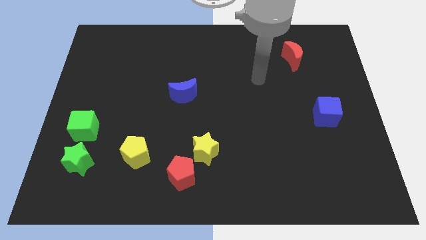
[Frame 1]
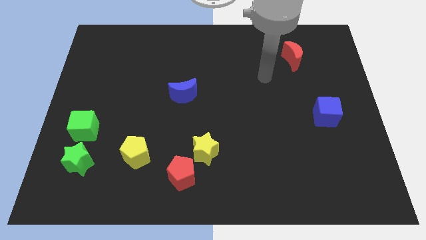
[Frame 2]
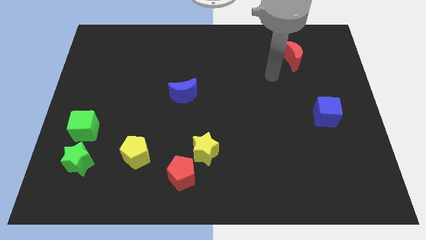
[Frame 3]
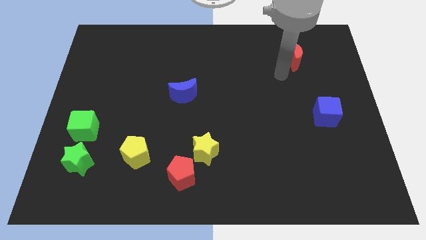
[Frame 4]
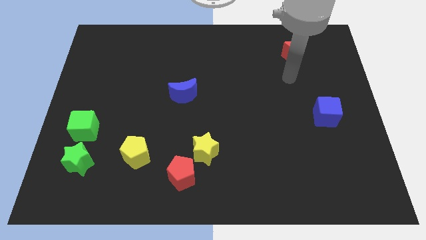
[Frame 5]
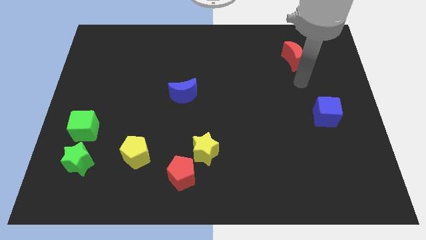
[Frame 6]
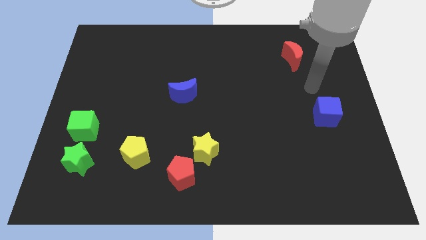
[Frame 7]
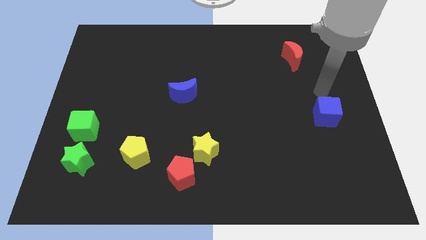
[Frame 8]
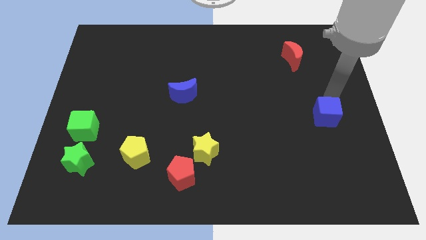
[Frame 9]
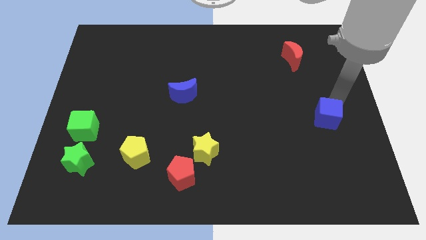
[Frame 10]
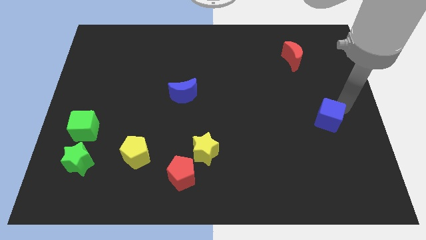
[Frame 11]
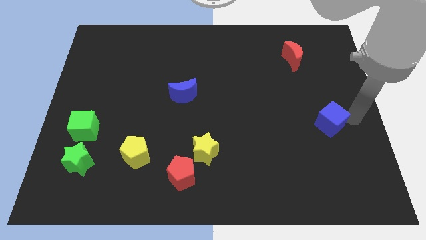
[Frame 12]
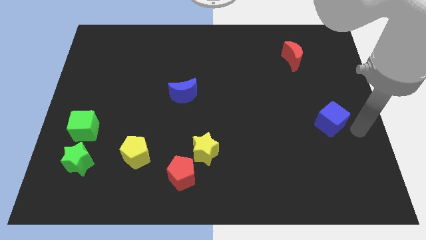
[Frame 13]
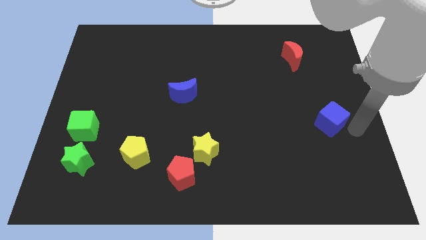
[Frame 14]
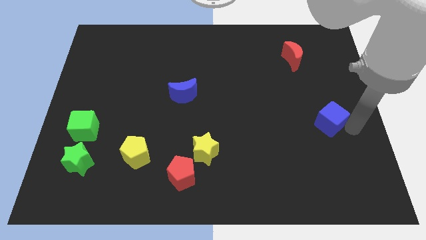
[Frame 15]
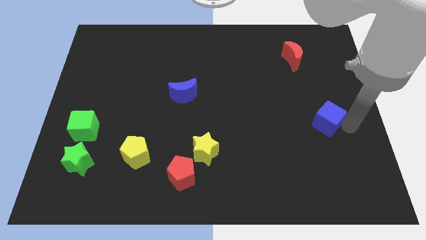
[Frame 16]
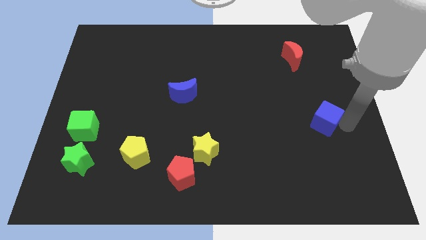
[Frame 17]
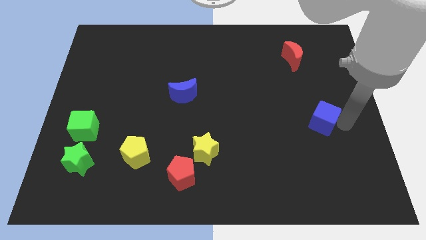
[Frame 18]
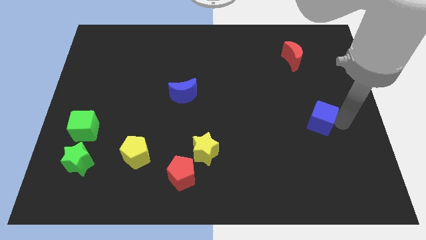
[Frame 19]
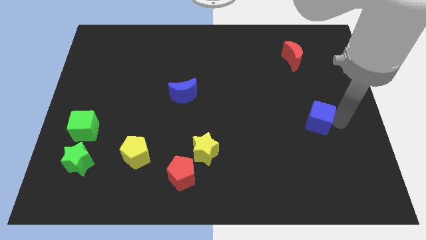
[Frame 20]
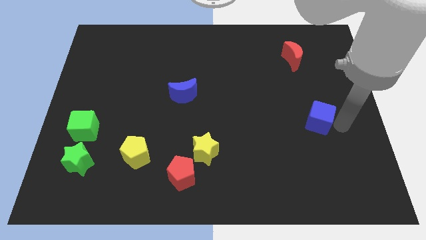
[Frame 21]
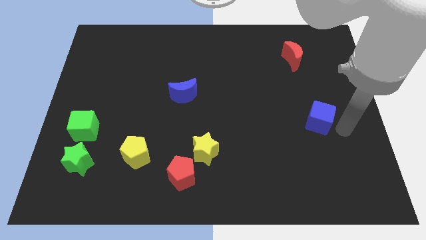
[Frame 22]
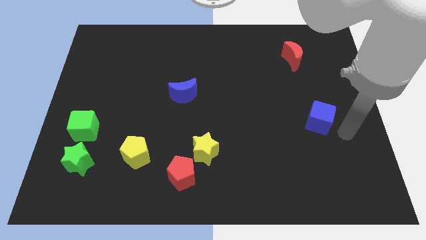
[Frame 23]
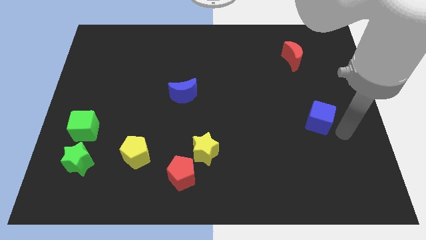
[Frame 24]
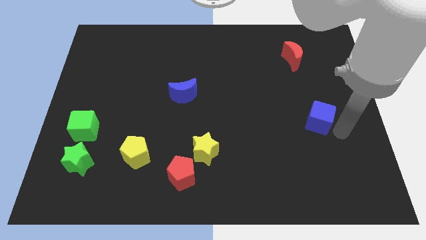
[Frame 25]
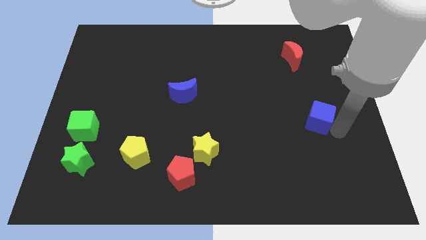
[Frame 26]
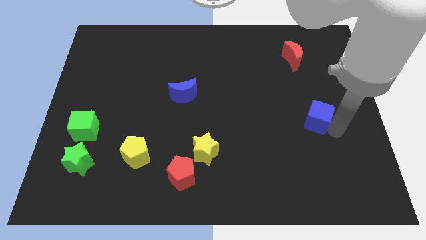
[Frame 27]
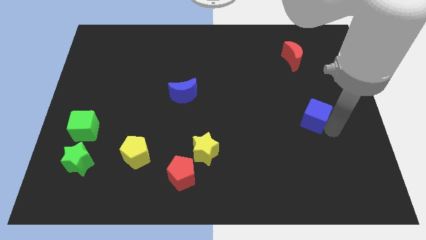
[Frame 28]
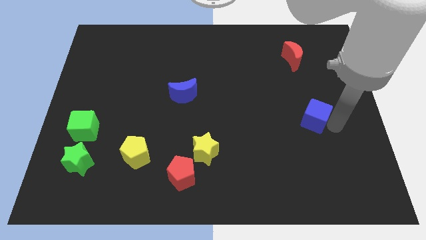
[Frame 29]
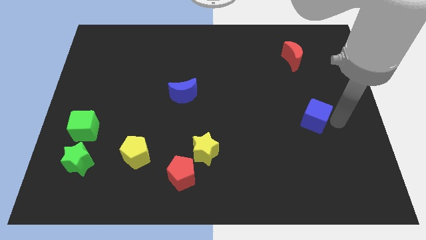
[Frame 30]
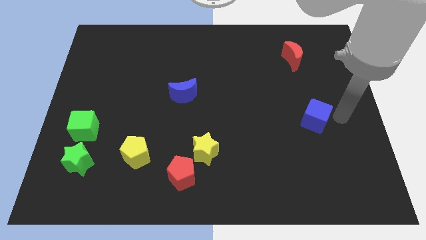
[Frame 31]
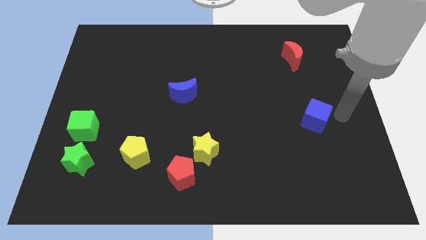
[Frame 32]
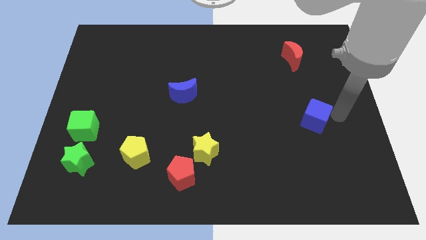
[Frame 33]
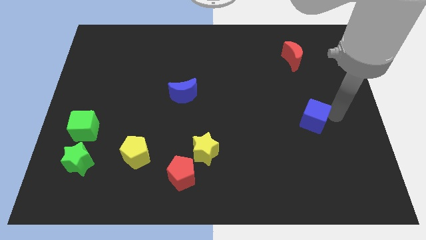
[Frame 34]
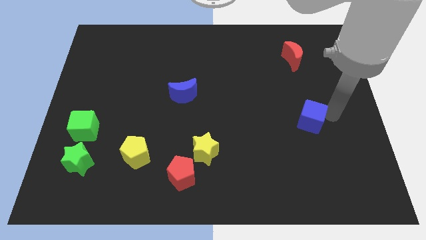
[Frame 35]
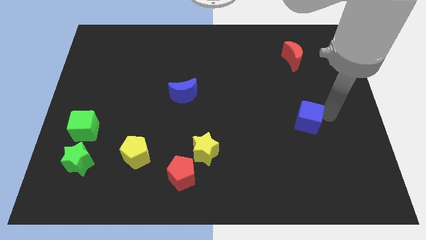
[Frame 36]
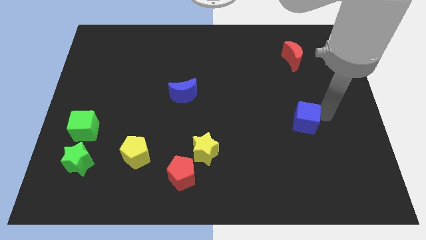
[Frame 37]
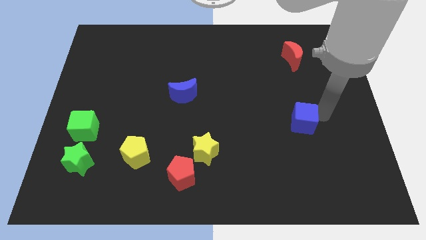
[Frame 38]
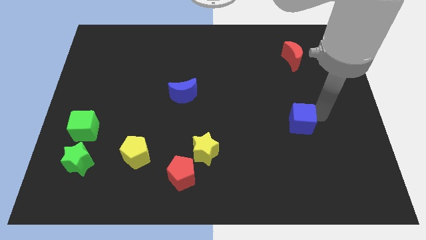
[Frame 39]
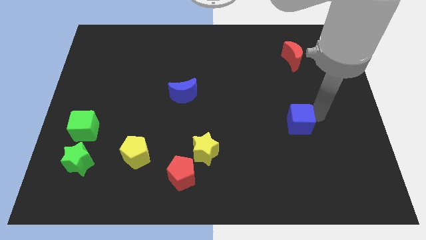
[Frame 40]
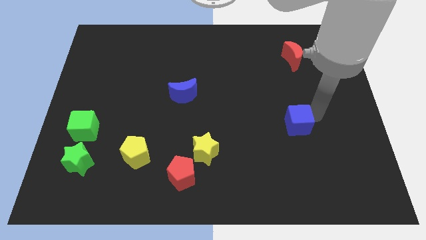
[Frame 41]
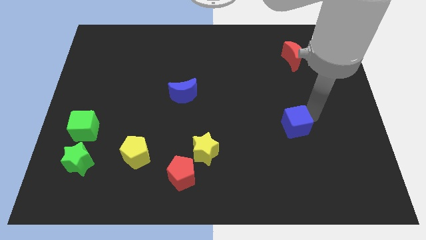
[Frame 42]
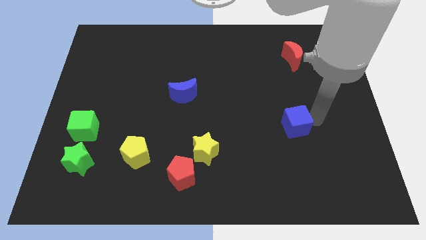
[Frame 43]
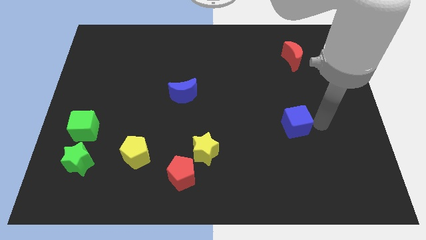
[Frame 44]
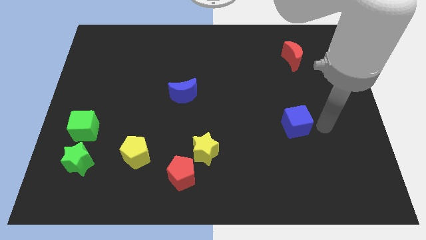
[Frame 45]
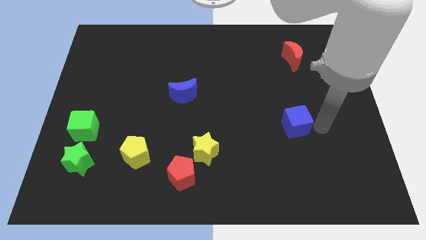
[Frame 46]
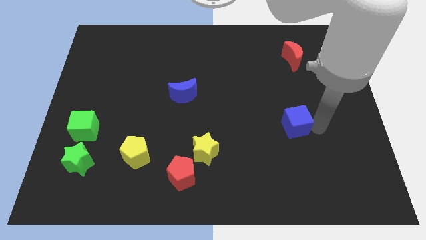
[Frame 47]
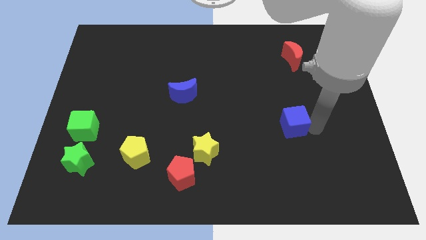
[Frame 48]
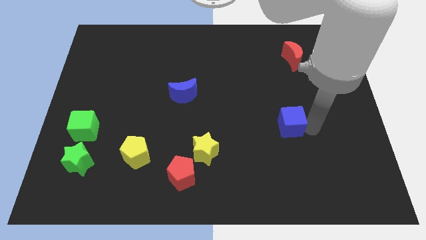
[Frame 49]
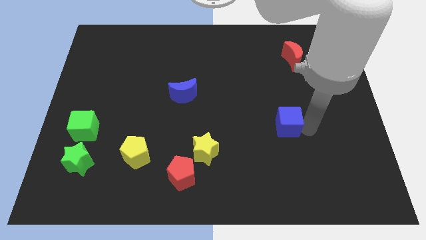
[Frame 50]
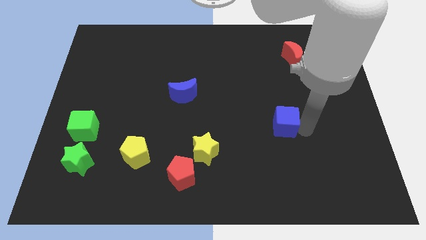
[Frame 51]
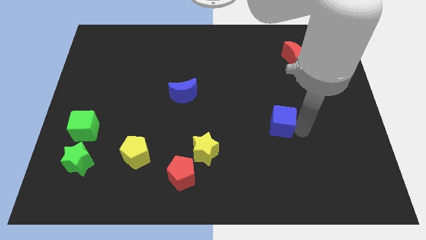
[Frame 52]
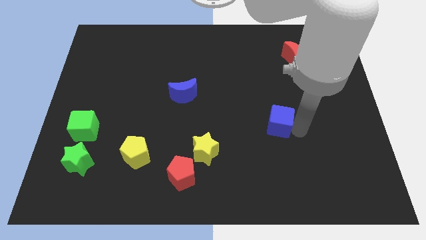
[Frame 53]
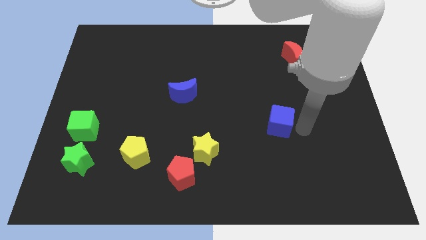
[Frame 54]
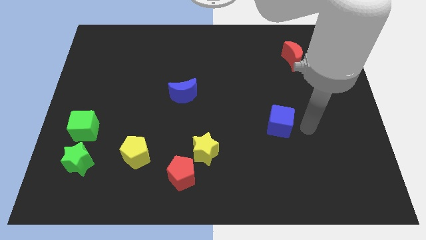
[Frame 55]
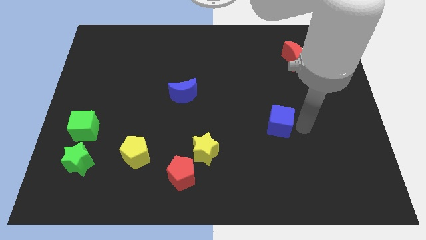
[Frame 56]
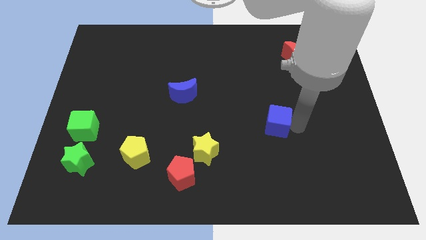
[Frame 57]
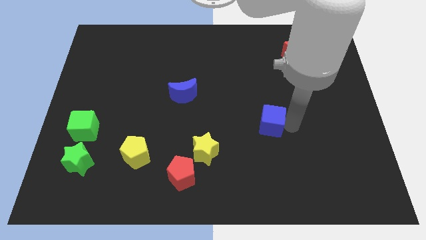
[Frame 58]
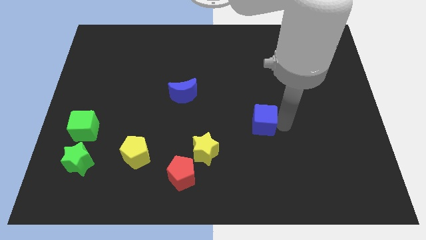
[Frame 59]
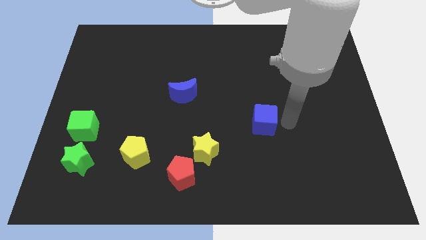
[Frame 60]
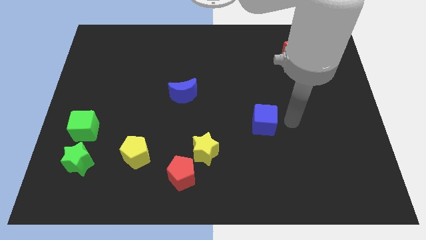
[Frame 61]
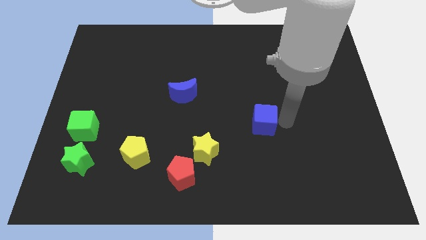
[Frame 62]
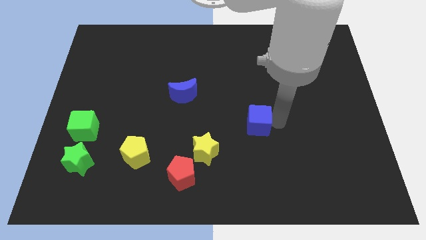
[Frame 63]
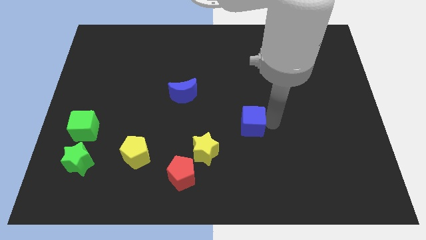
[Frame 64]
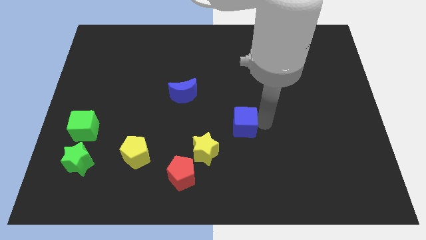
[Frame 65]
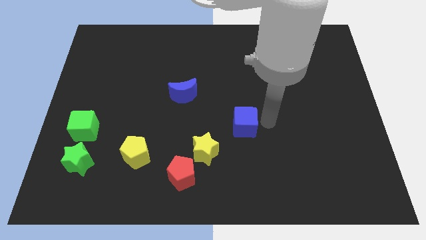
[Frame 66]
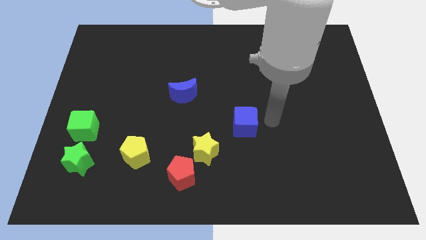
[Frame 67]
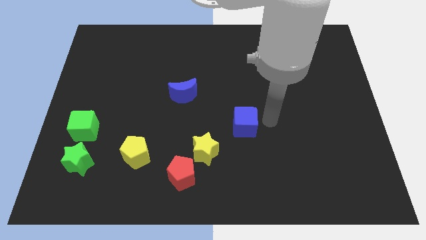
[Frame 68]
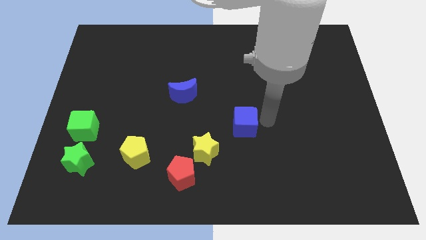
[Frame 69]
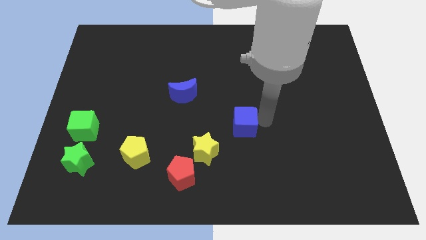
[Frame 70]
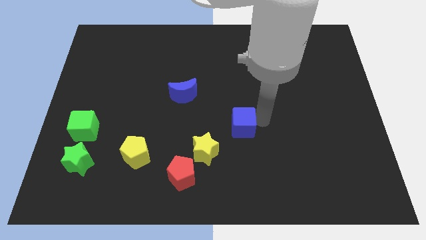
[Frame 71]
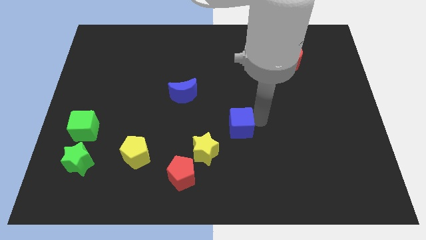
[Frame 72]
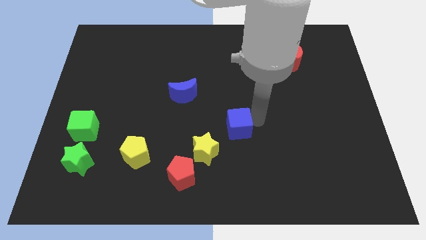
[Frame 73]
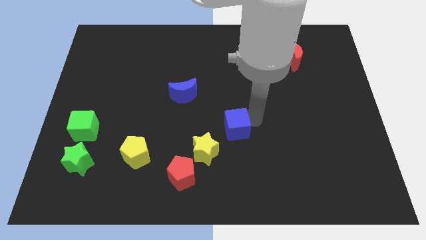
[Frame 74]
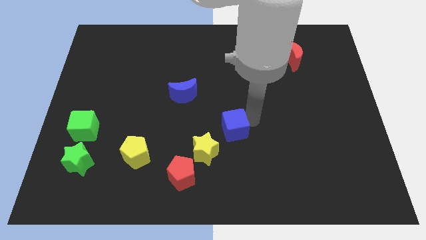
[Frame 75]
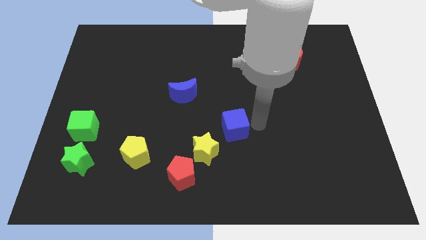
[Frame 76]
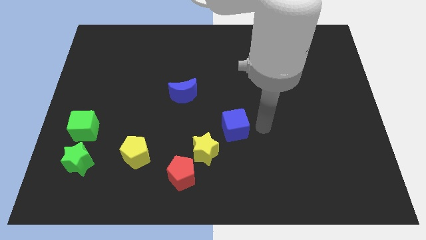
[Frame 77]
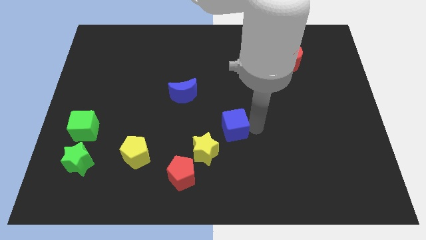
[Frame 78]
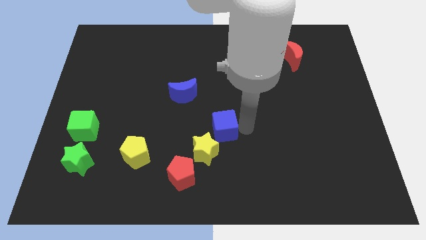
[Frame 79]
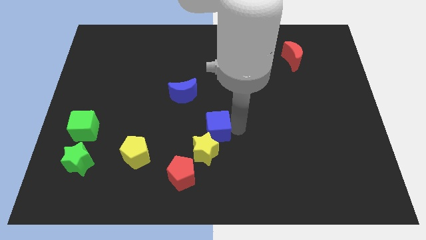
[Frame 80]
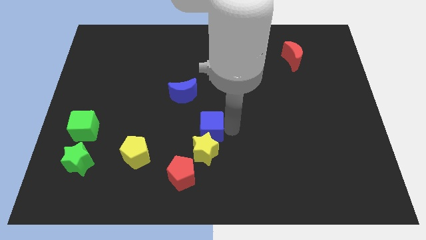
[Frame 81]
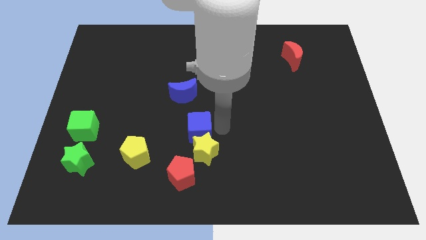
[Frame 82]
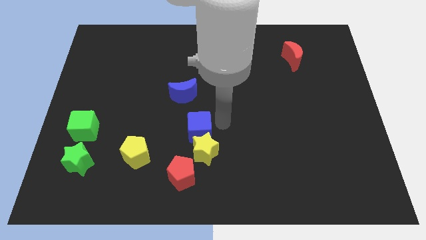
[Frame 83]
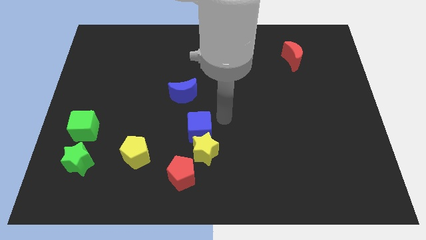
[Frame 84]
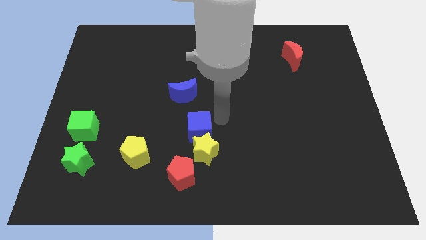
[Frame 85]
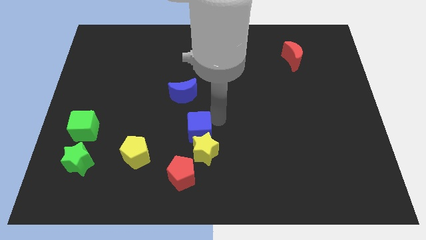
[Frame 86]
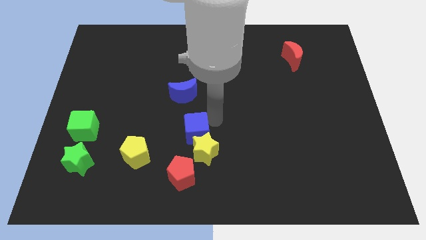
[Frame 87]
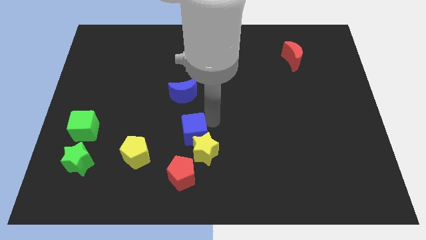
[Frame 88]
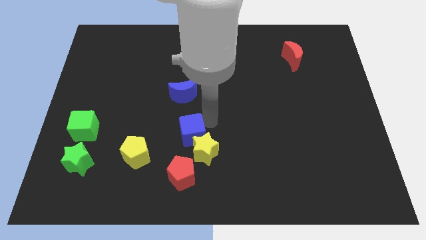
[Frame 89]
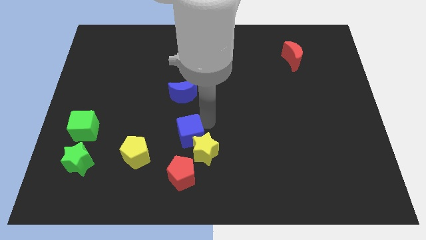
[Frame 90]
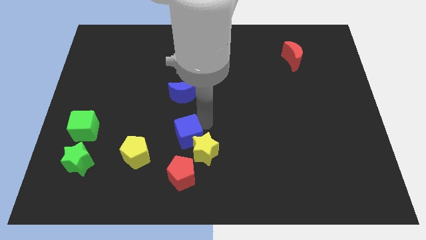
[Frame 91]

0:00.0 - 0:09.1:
slide the blue cube to the left side of the yellow star
